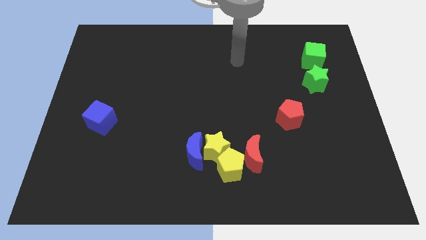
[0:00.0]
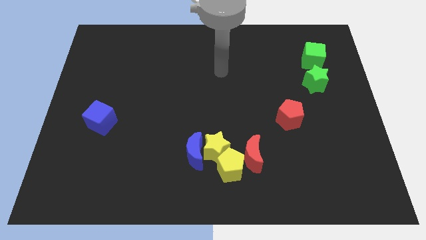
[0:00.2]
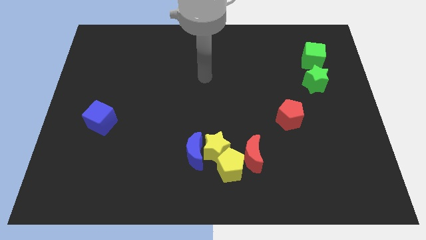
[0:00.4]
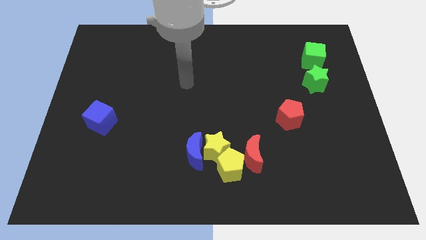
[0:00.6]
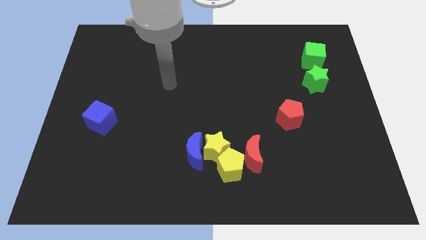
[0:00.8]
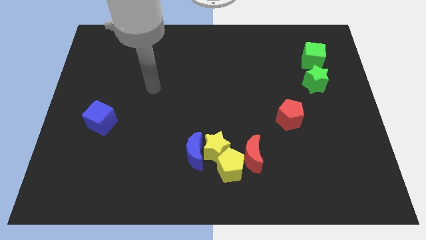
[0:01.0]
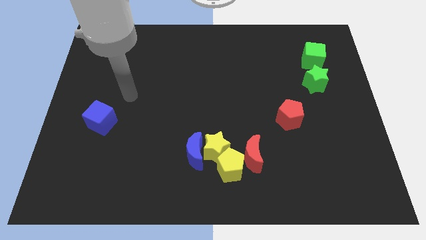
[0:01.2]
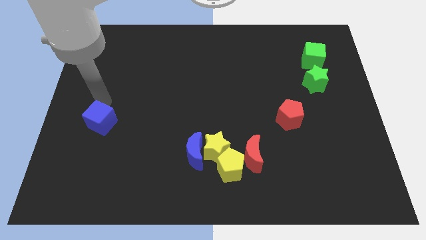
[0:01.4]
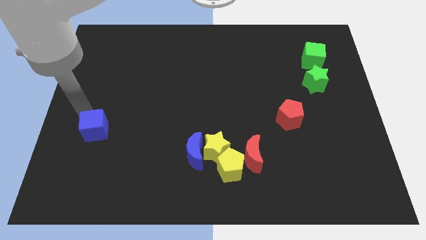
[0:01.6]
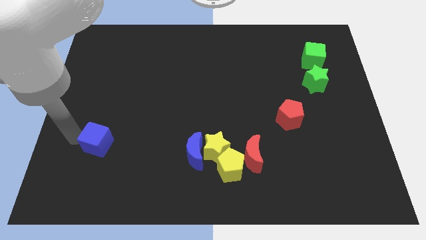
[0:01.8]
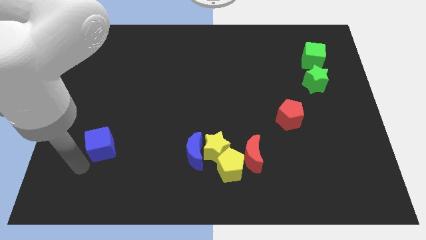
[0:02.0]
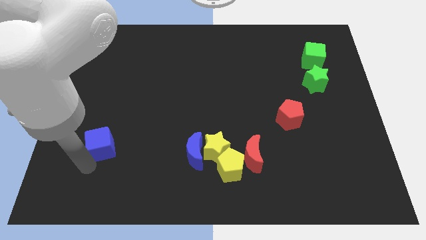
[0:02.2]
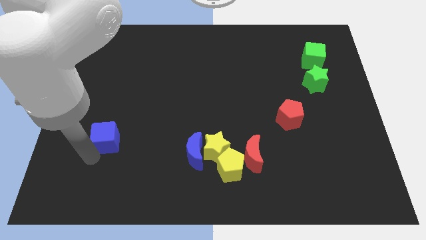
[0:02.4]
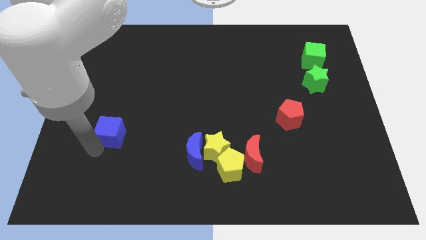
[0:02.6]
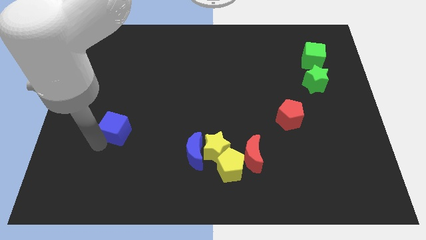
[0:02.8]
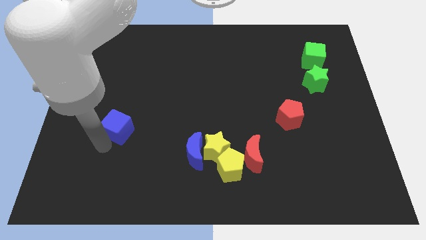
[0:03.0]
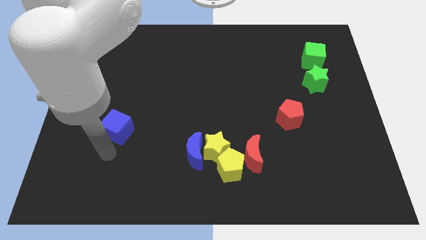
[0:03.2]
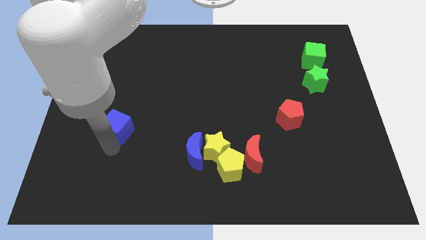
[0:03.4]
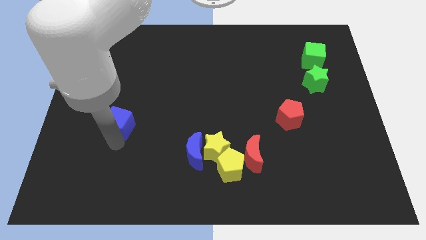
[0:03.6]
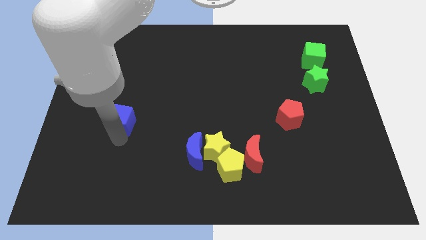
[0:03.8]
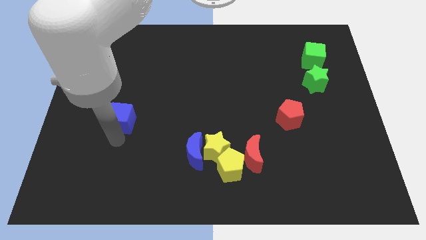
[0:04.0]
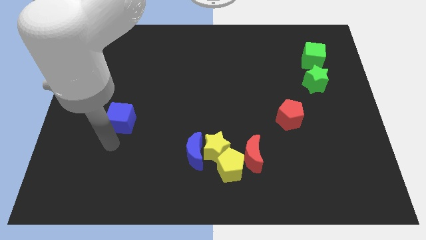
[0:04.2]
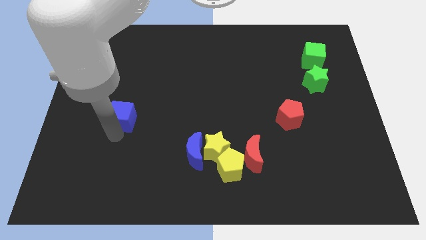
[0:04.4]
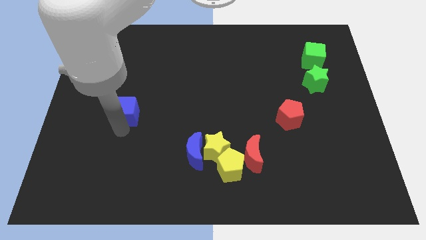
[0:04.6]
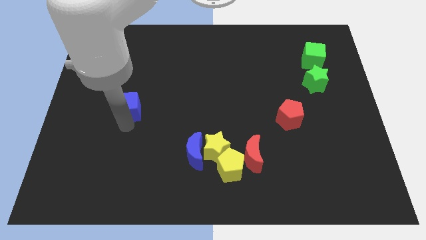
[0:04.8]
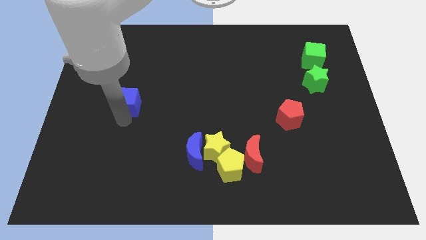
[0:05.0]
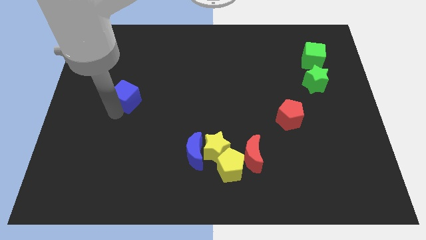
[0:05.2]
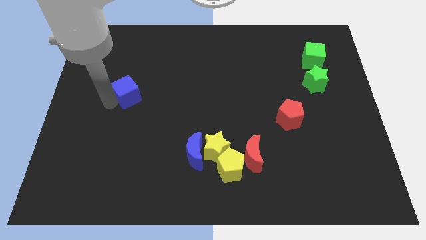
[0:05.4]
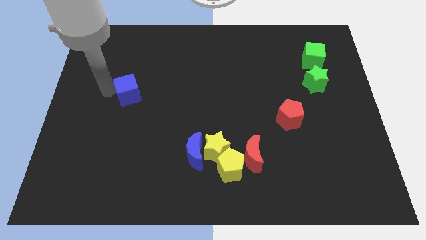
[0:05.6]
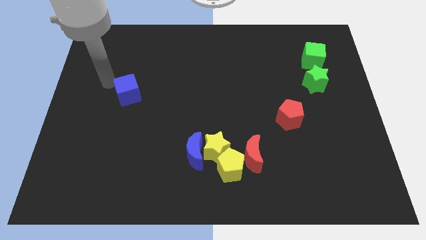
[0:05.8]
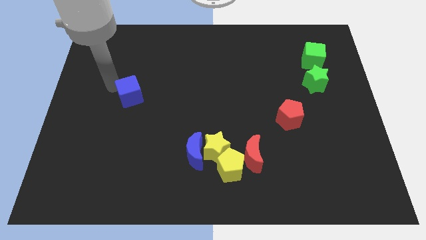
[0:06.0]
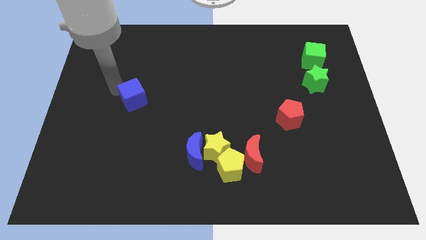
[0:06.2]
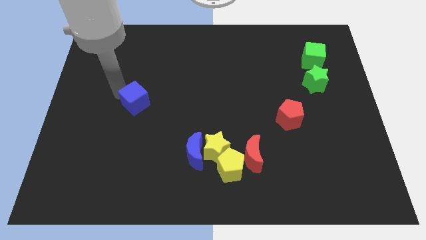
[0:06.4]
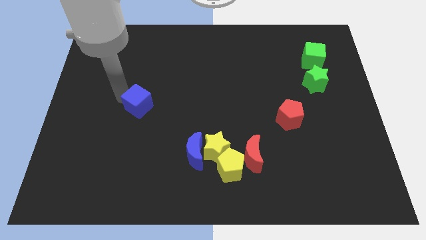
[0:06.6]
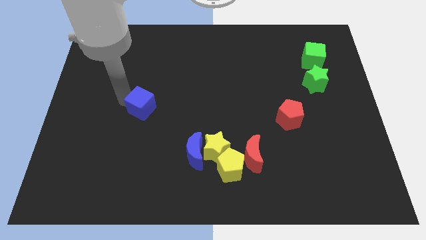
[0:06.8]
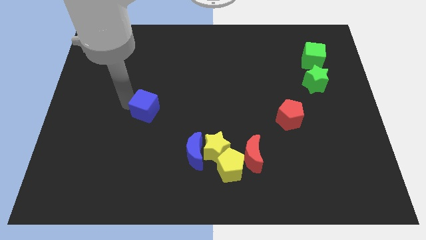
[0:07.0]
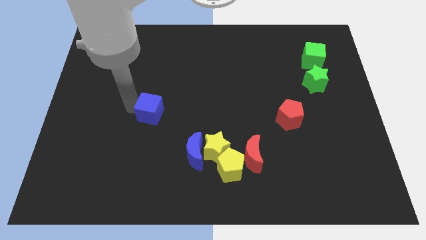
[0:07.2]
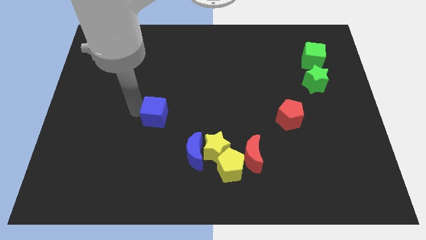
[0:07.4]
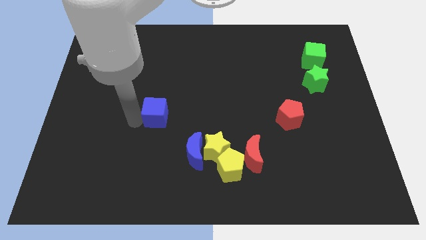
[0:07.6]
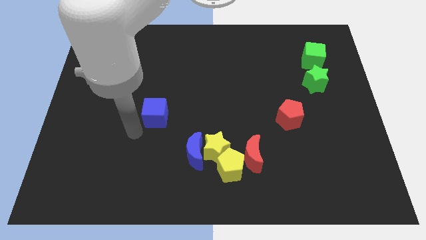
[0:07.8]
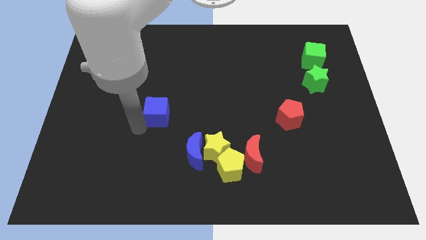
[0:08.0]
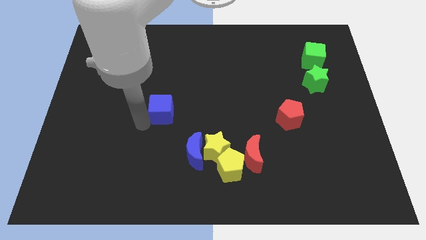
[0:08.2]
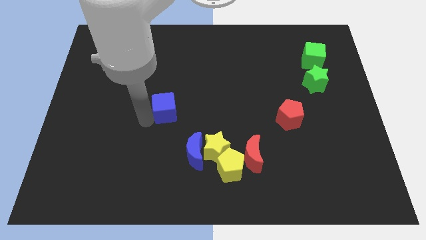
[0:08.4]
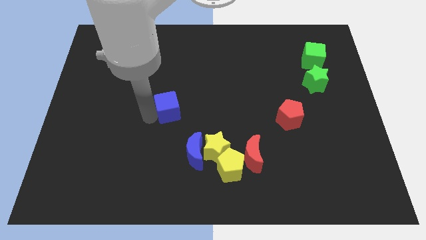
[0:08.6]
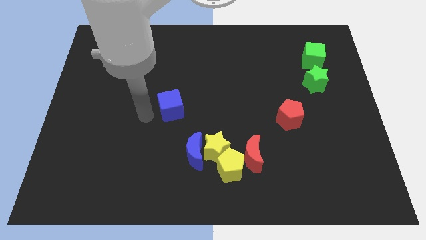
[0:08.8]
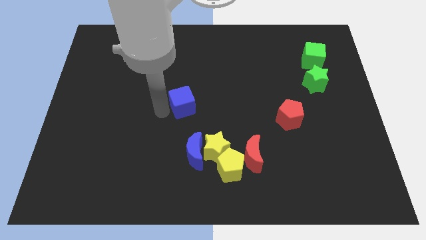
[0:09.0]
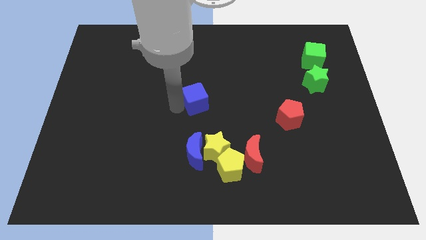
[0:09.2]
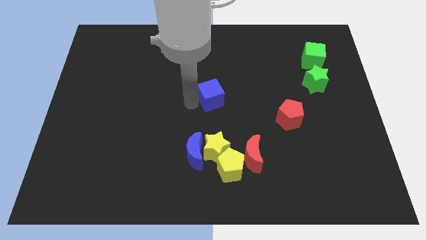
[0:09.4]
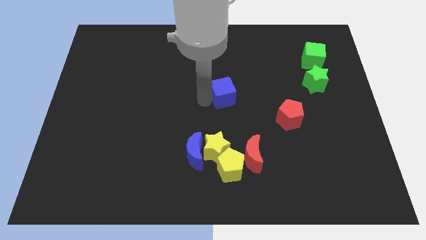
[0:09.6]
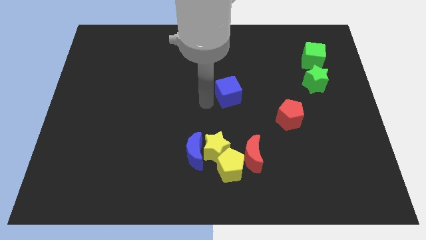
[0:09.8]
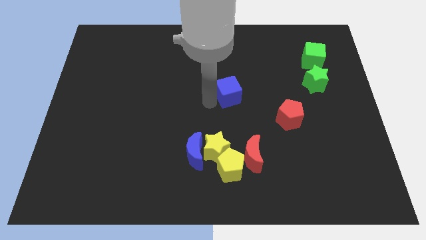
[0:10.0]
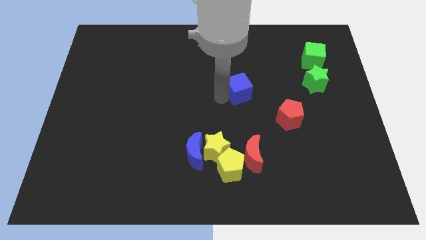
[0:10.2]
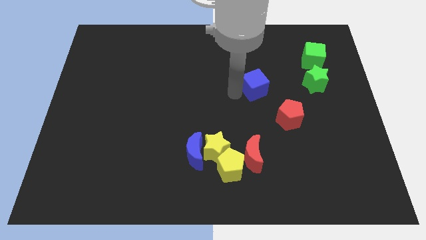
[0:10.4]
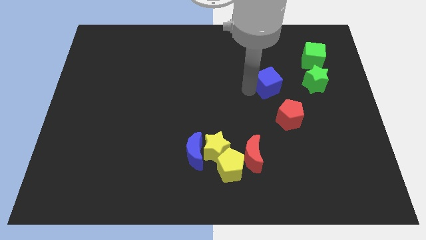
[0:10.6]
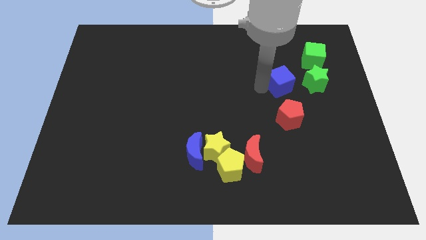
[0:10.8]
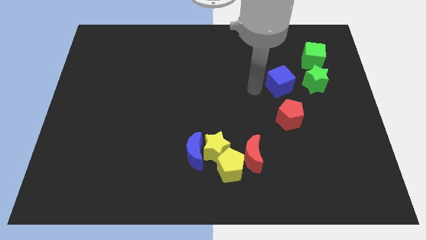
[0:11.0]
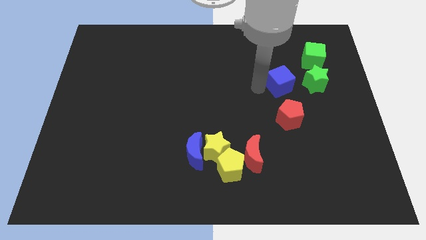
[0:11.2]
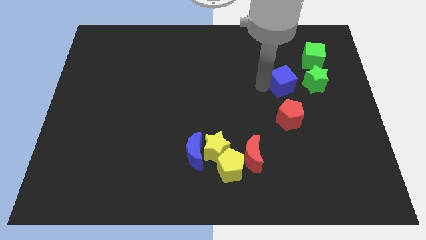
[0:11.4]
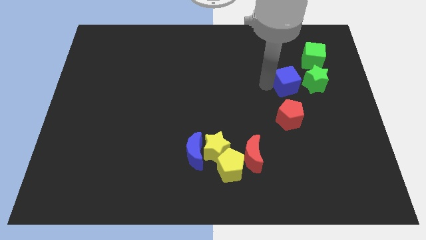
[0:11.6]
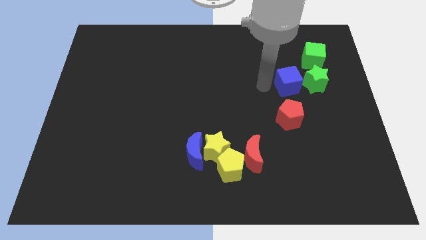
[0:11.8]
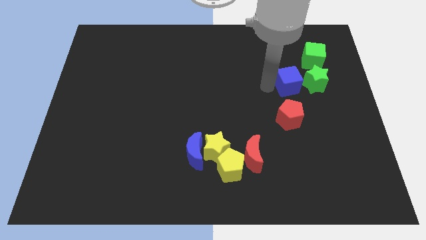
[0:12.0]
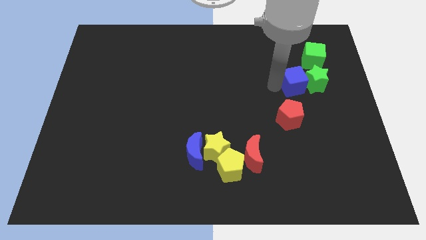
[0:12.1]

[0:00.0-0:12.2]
push the blue cube towards the green star

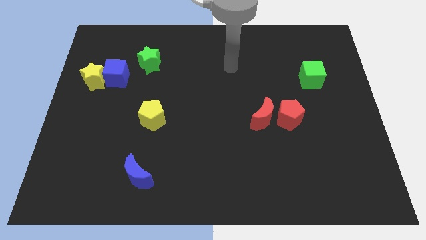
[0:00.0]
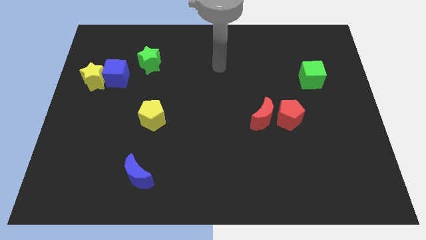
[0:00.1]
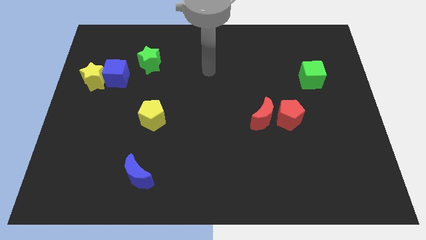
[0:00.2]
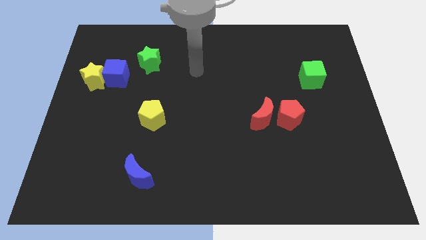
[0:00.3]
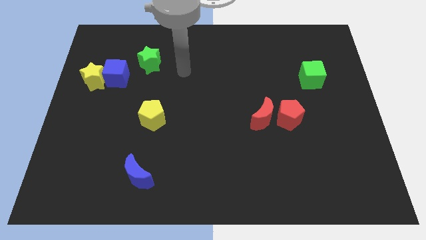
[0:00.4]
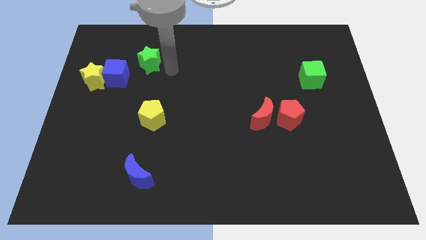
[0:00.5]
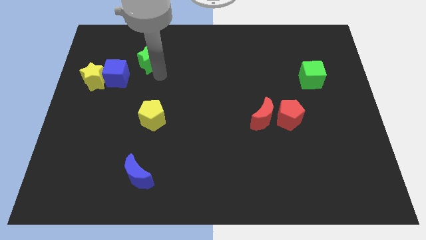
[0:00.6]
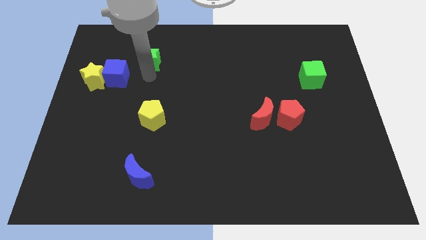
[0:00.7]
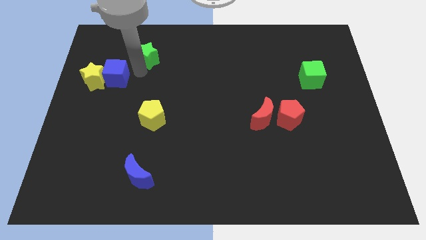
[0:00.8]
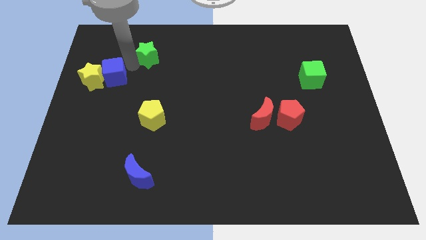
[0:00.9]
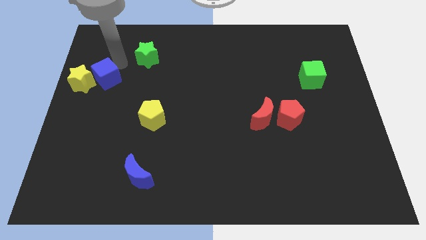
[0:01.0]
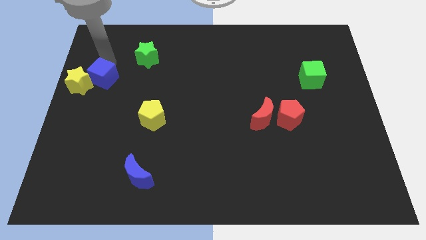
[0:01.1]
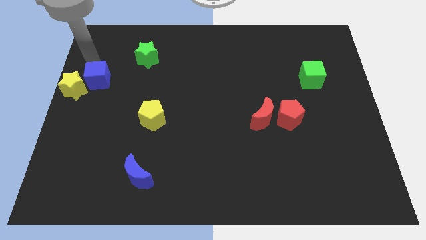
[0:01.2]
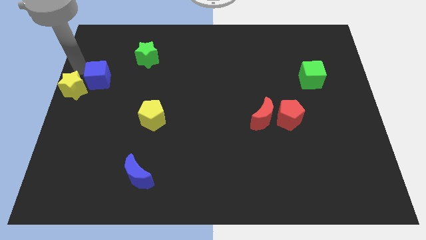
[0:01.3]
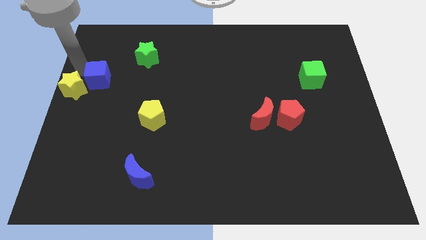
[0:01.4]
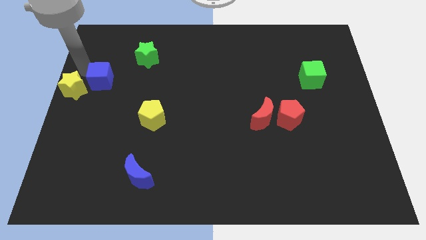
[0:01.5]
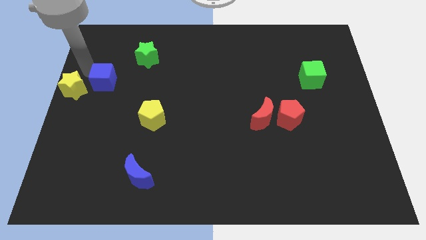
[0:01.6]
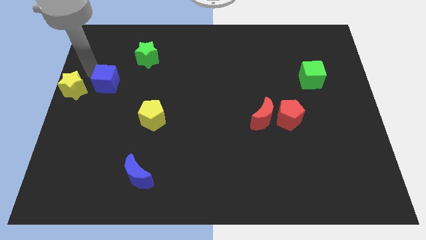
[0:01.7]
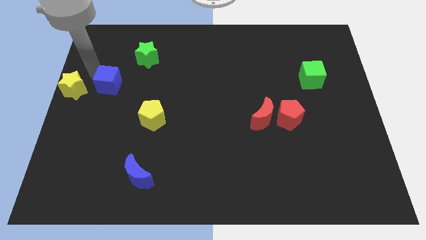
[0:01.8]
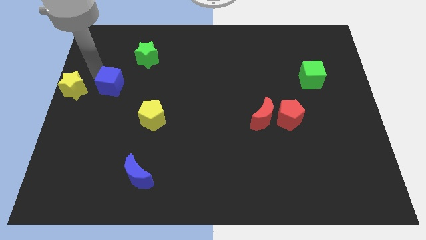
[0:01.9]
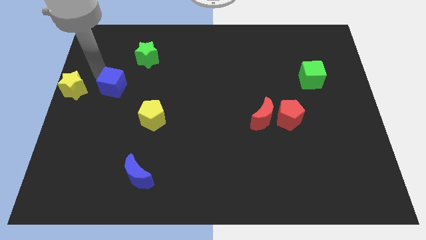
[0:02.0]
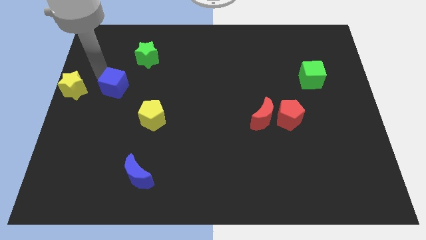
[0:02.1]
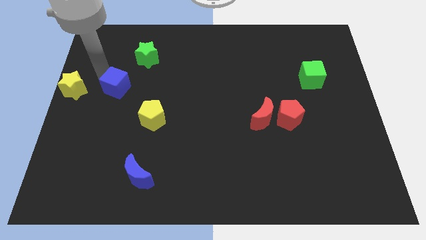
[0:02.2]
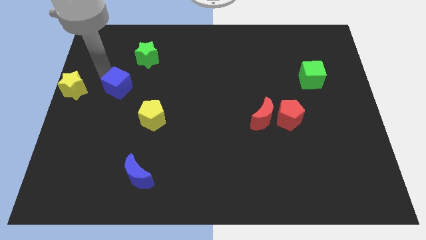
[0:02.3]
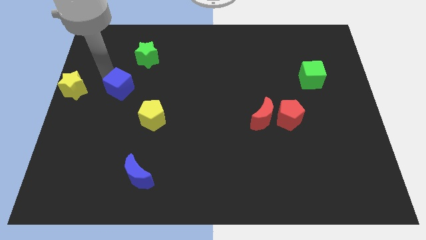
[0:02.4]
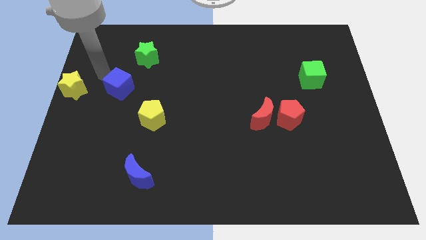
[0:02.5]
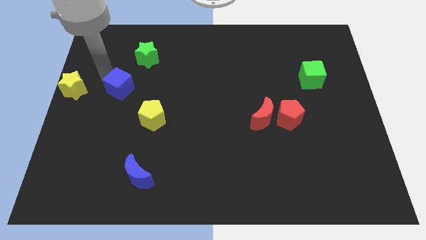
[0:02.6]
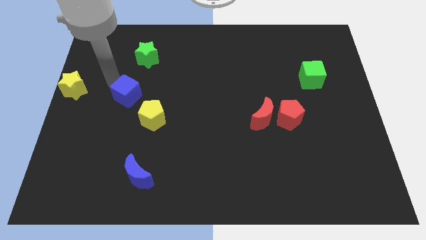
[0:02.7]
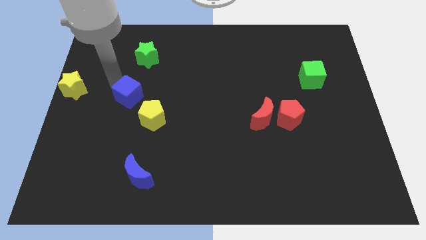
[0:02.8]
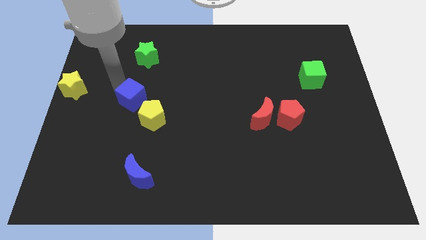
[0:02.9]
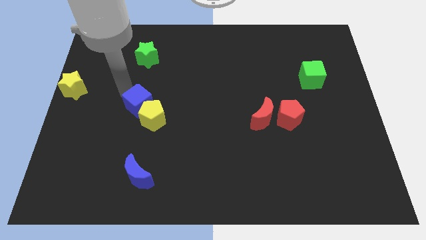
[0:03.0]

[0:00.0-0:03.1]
move the blue cube next to the yellow pentagon
